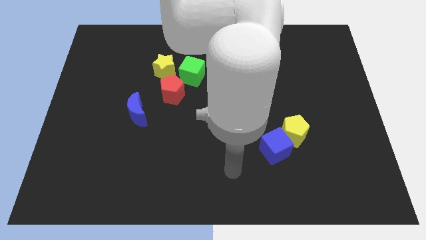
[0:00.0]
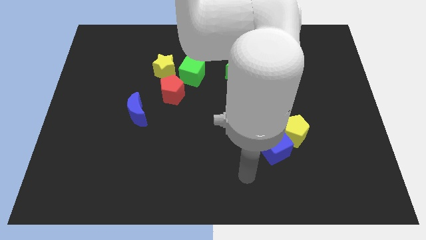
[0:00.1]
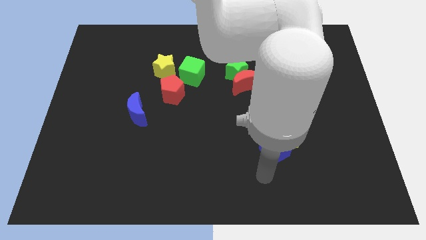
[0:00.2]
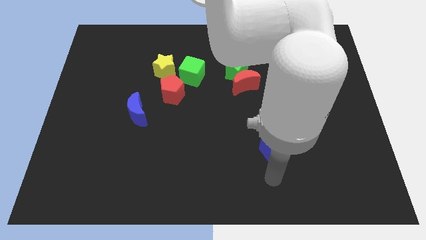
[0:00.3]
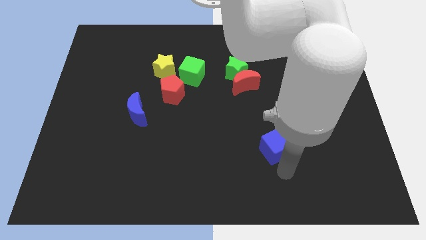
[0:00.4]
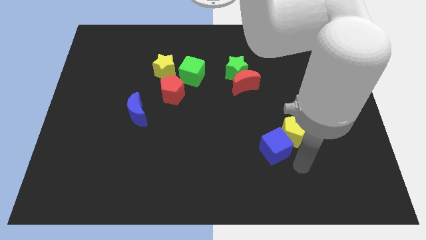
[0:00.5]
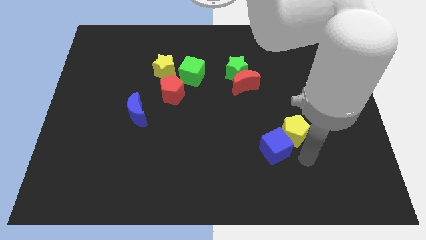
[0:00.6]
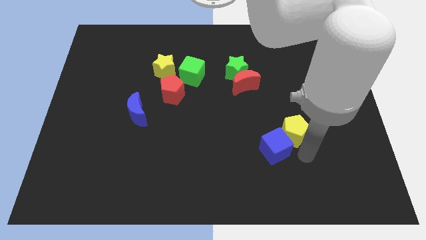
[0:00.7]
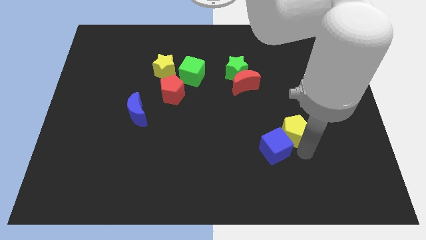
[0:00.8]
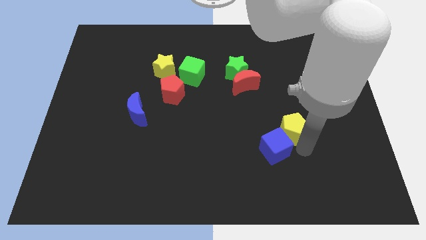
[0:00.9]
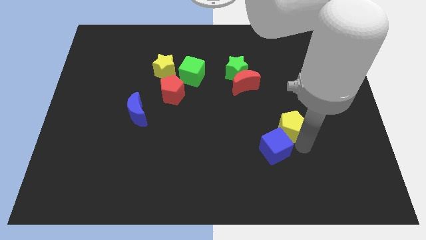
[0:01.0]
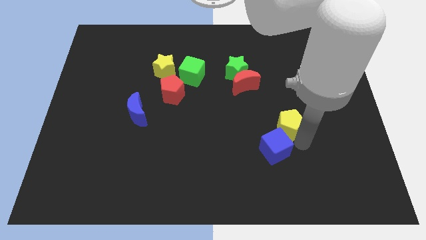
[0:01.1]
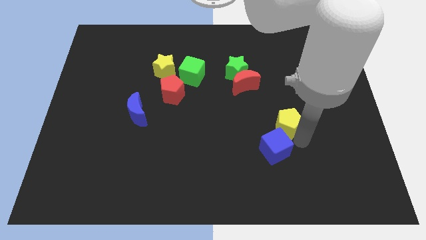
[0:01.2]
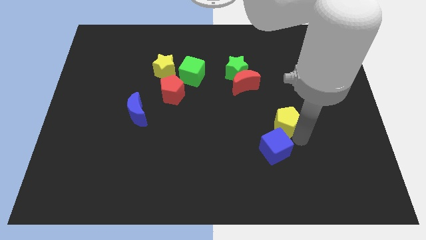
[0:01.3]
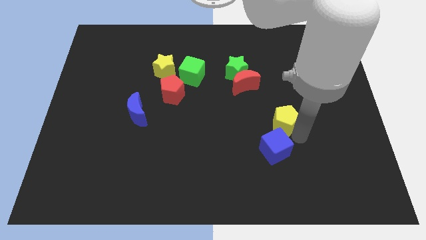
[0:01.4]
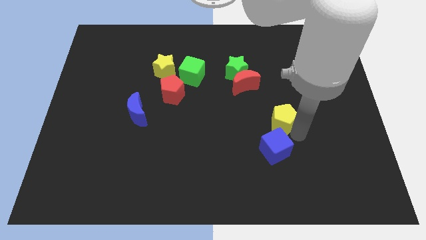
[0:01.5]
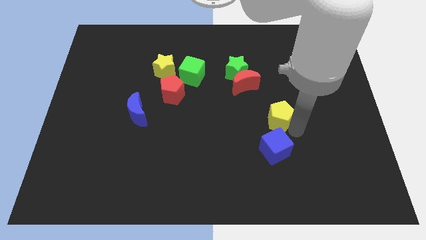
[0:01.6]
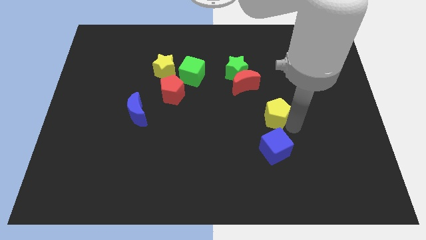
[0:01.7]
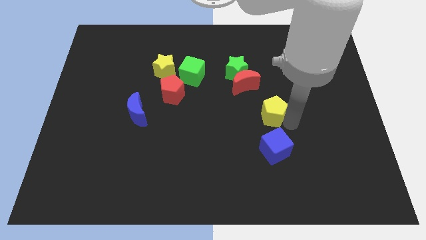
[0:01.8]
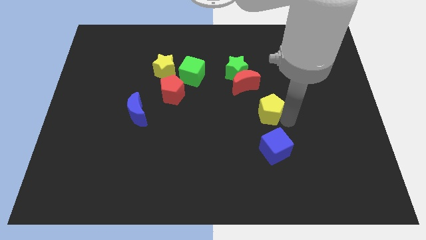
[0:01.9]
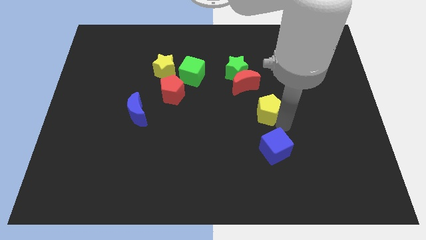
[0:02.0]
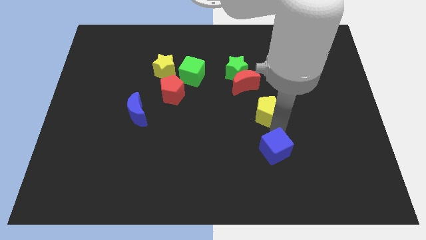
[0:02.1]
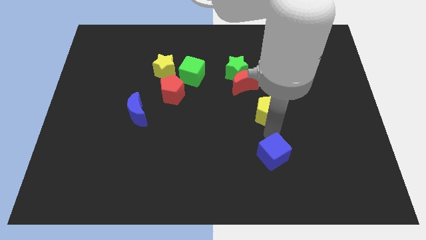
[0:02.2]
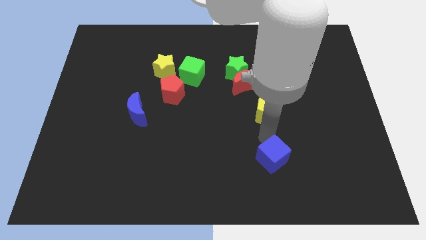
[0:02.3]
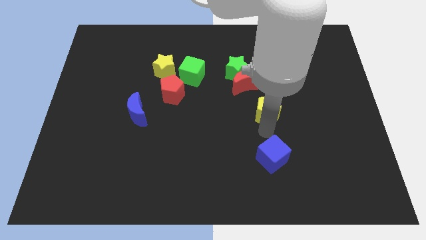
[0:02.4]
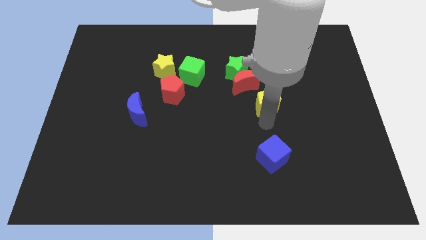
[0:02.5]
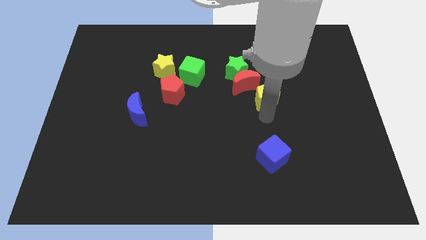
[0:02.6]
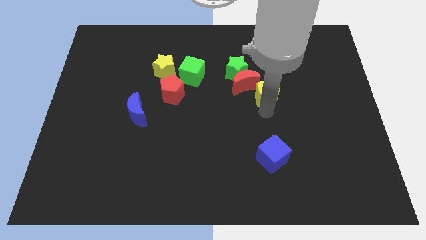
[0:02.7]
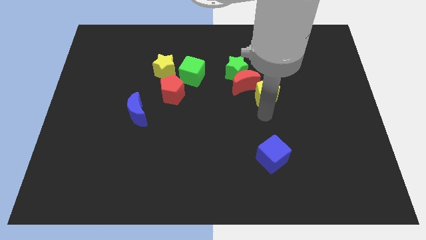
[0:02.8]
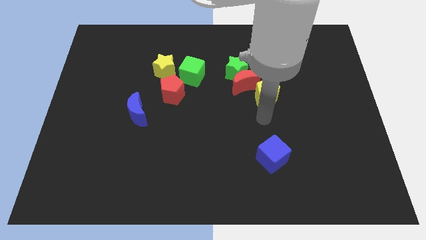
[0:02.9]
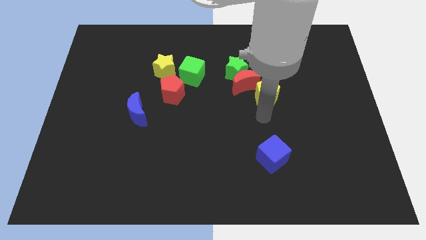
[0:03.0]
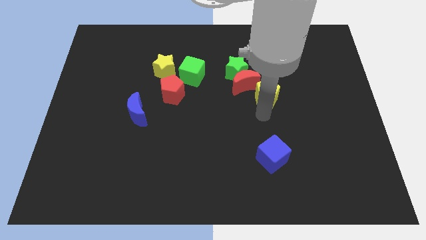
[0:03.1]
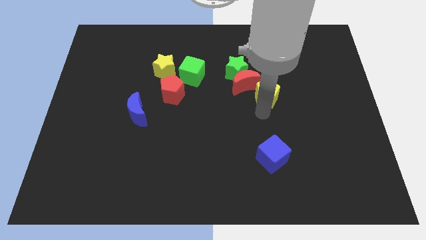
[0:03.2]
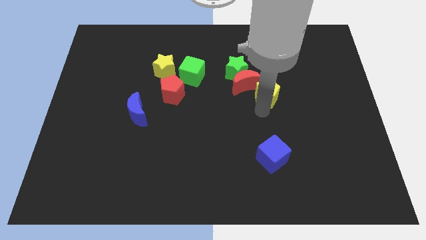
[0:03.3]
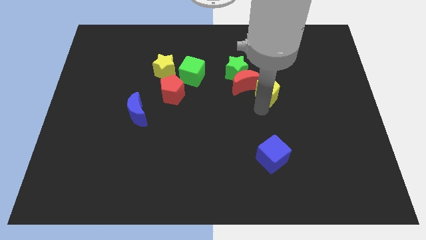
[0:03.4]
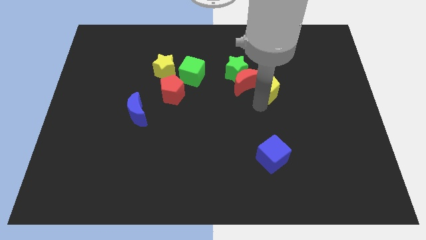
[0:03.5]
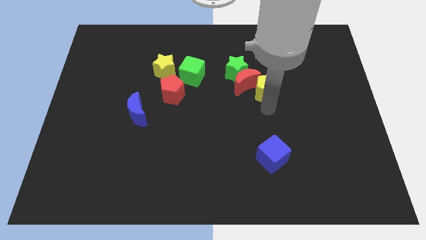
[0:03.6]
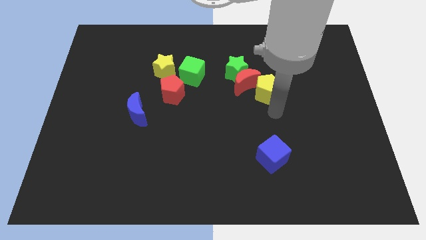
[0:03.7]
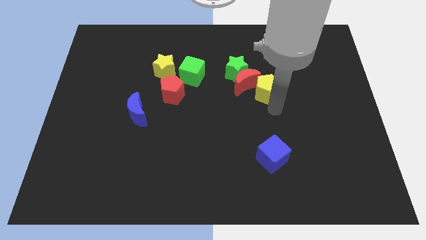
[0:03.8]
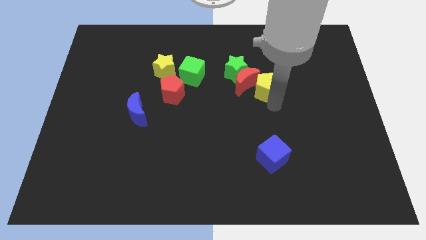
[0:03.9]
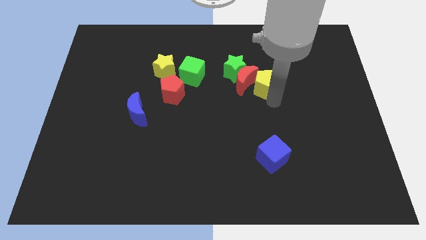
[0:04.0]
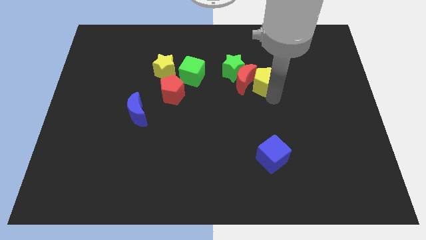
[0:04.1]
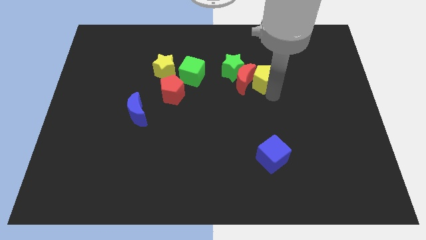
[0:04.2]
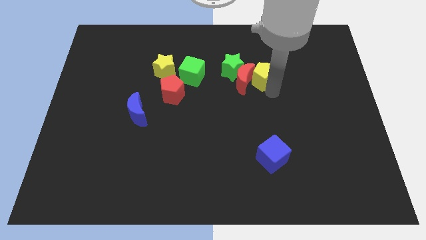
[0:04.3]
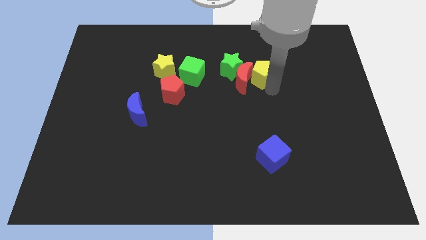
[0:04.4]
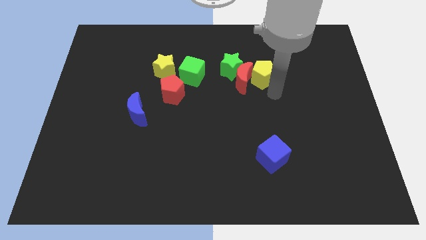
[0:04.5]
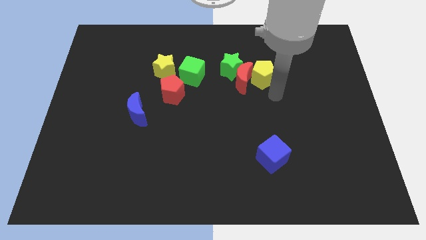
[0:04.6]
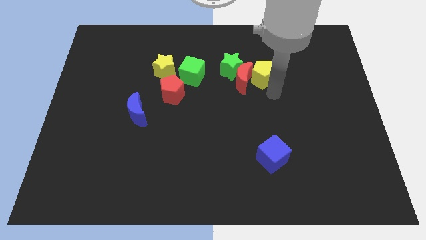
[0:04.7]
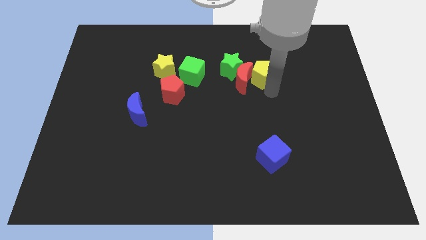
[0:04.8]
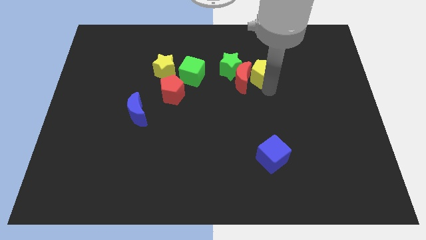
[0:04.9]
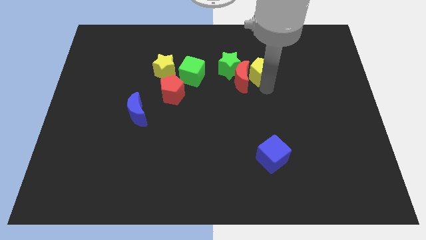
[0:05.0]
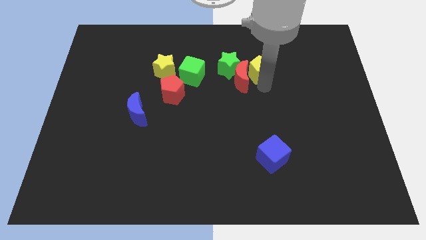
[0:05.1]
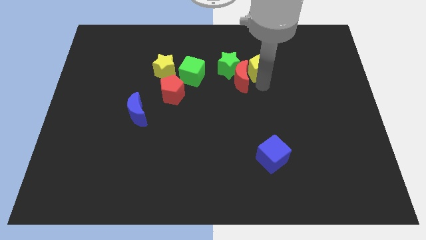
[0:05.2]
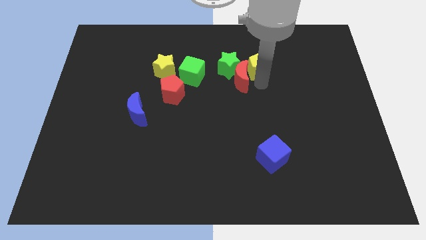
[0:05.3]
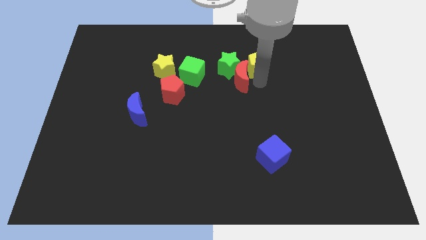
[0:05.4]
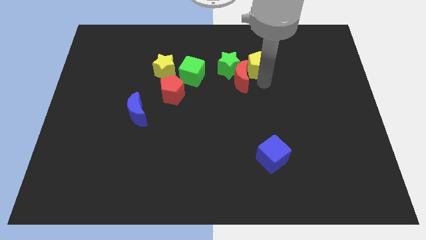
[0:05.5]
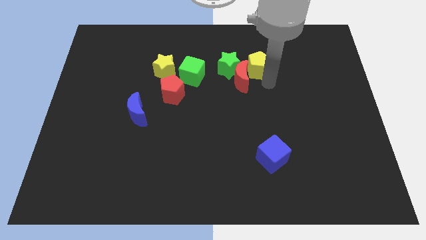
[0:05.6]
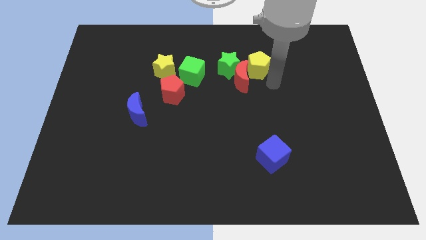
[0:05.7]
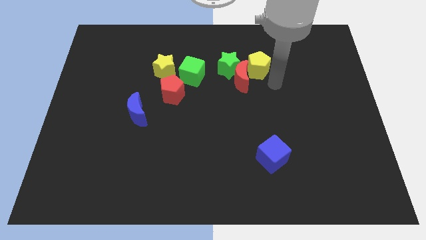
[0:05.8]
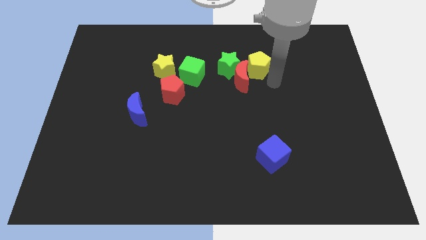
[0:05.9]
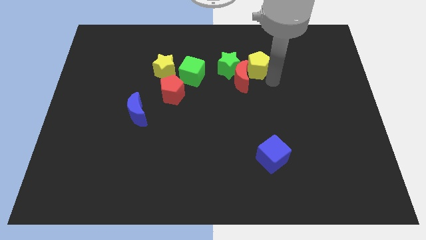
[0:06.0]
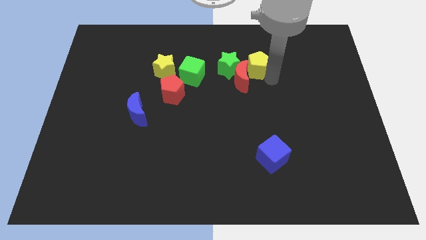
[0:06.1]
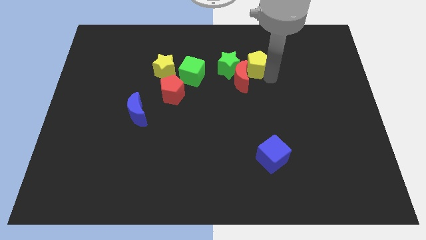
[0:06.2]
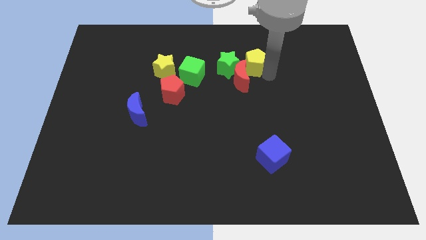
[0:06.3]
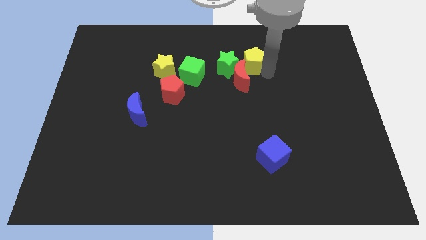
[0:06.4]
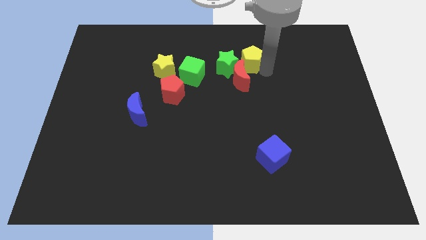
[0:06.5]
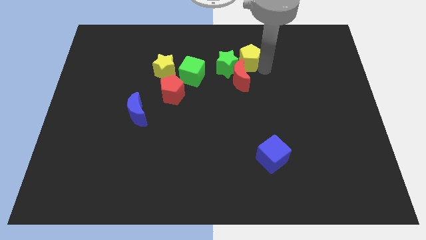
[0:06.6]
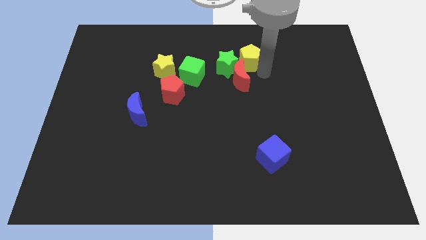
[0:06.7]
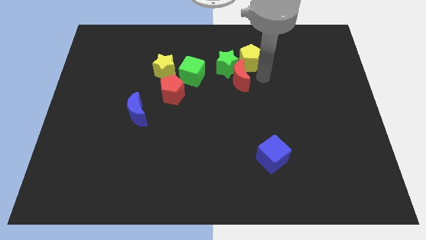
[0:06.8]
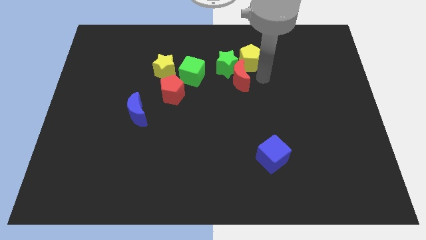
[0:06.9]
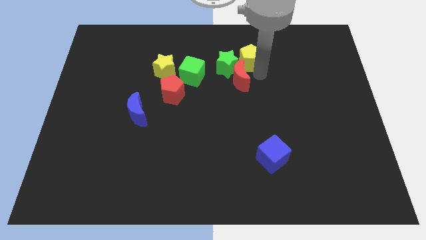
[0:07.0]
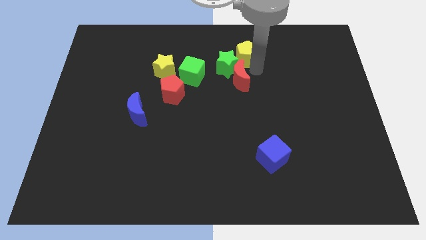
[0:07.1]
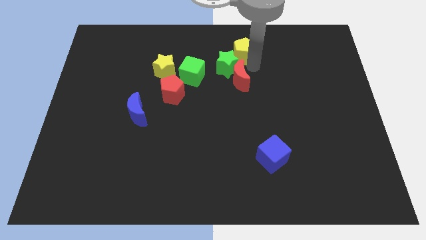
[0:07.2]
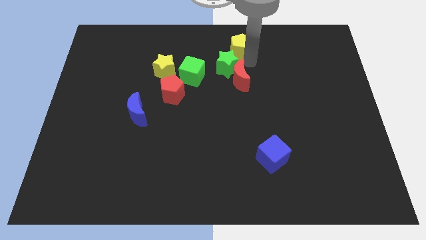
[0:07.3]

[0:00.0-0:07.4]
push the yellow pentagon to the top
